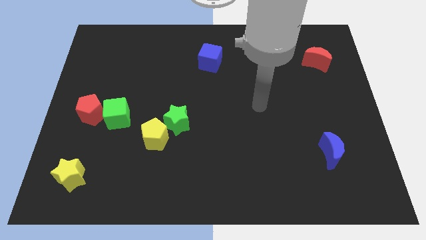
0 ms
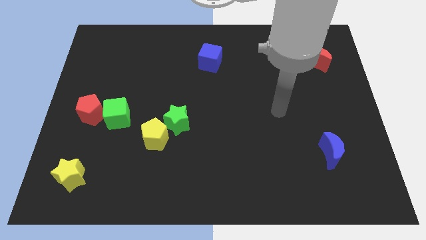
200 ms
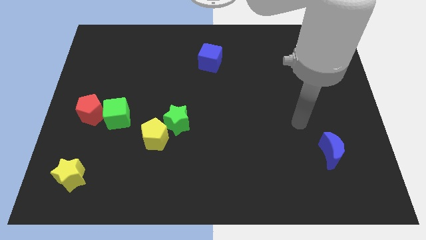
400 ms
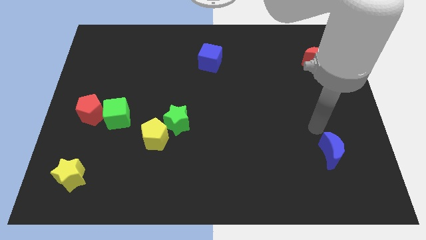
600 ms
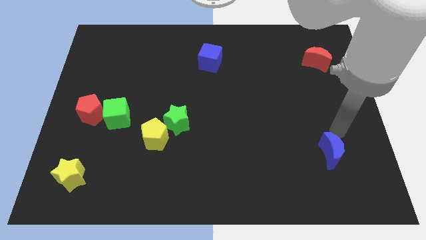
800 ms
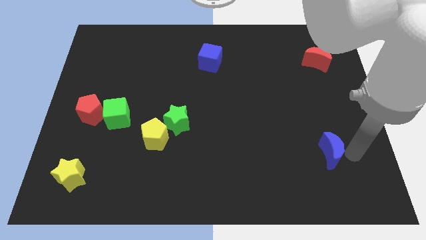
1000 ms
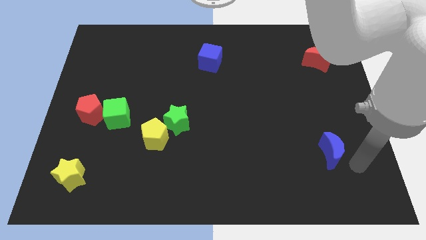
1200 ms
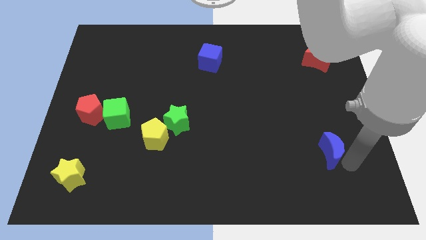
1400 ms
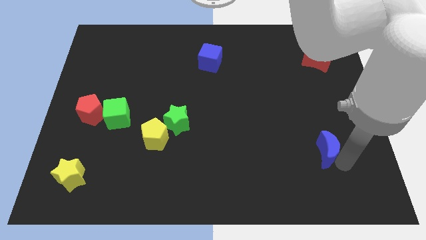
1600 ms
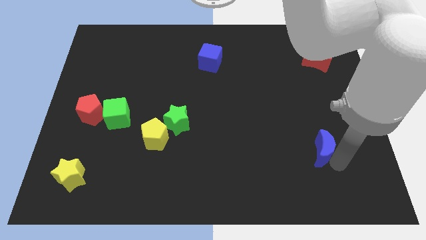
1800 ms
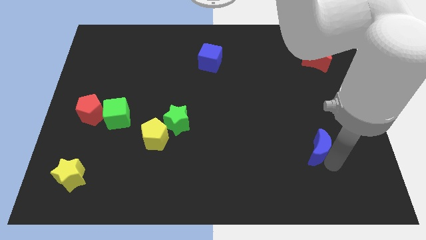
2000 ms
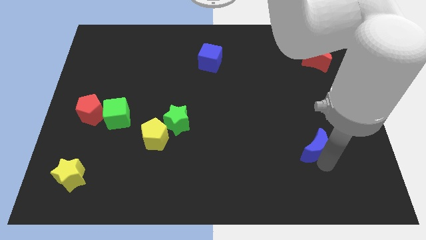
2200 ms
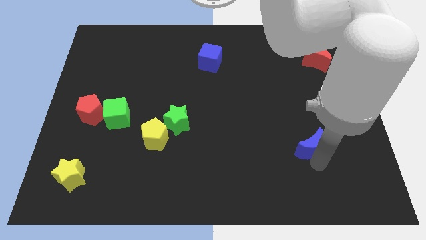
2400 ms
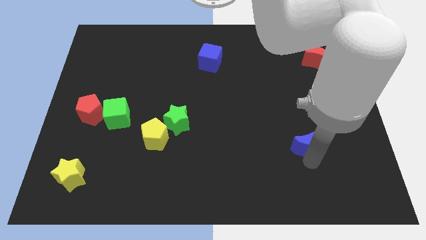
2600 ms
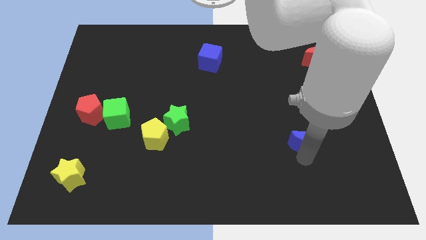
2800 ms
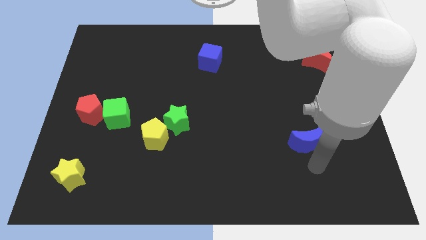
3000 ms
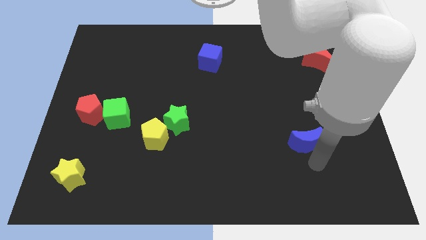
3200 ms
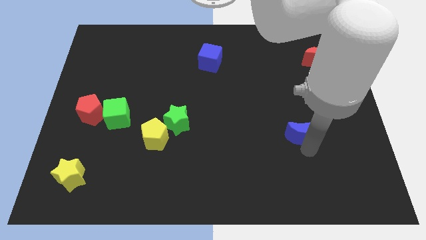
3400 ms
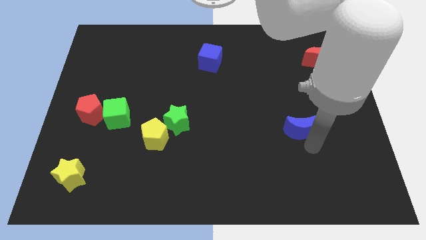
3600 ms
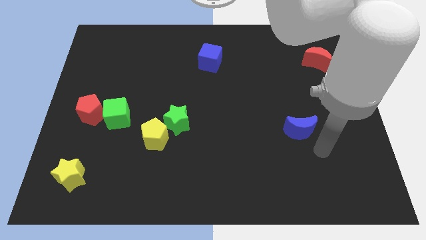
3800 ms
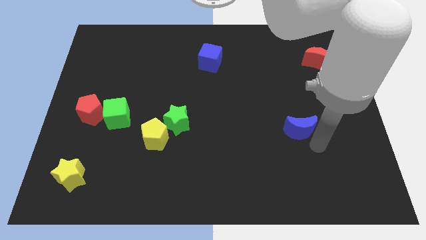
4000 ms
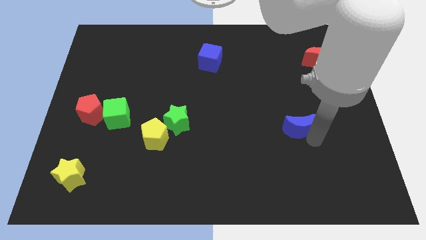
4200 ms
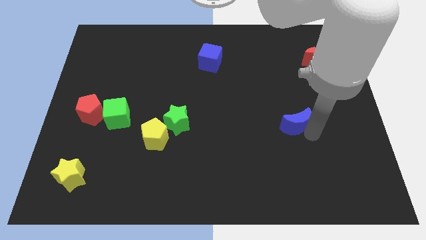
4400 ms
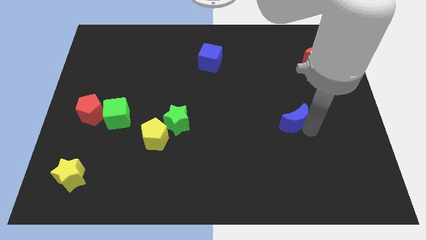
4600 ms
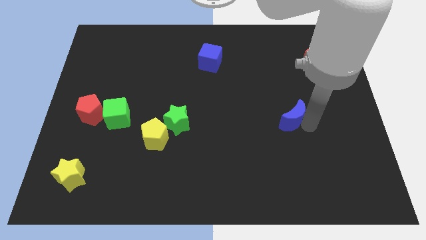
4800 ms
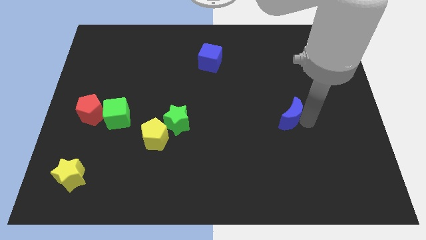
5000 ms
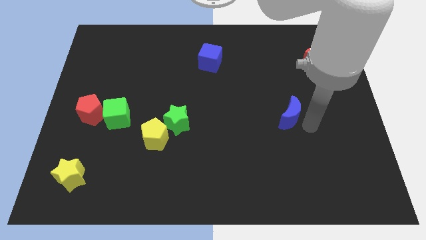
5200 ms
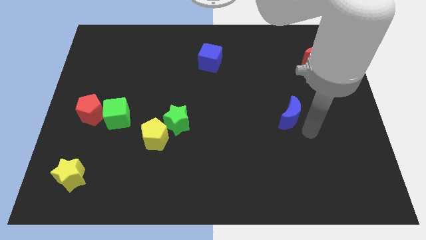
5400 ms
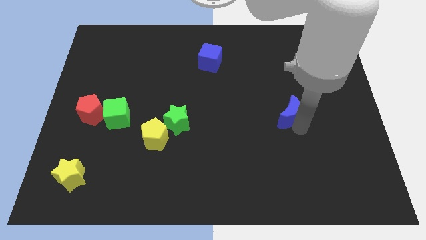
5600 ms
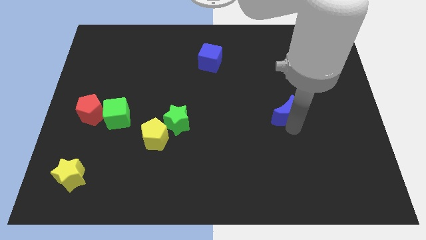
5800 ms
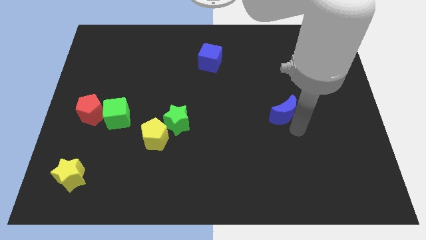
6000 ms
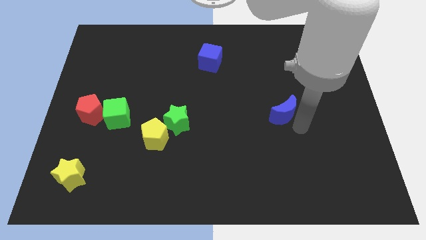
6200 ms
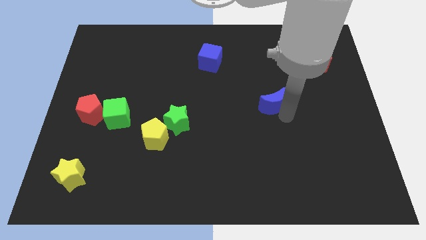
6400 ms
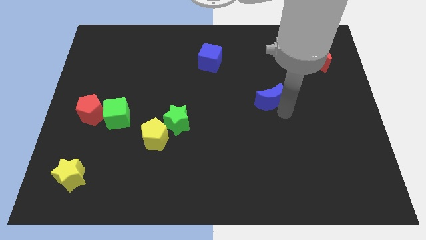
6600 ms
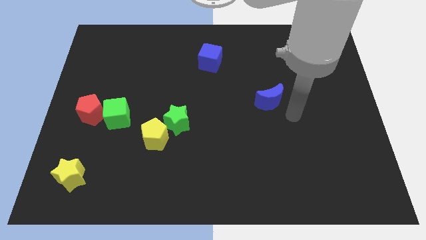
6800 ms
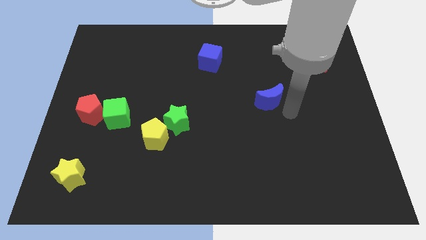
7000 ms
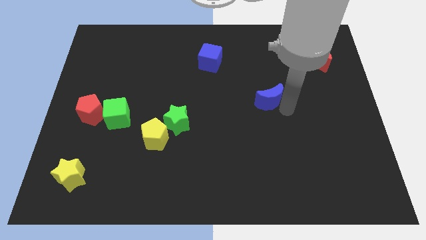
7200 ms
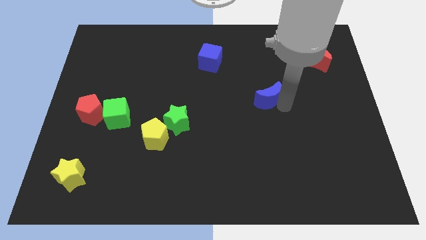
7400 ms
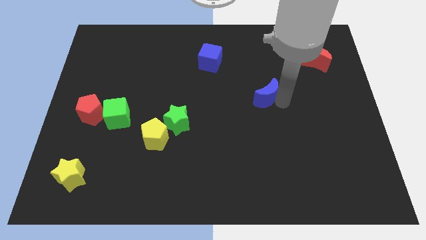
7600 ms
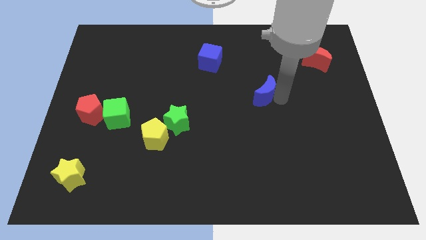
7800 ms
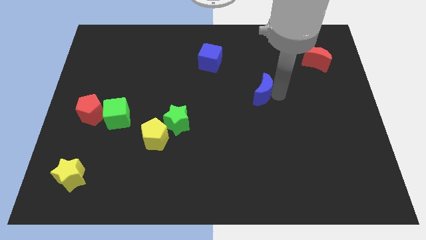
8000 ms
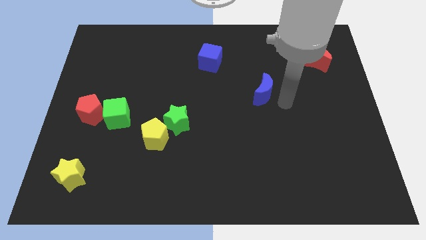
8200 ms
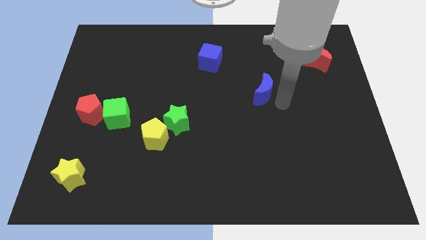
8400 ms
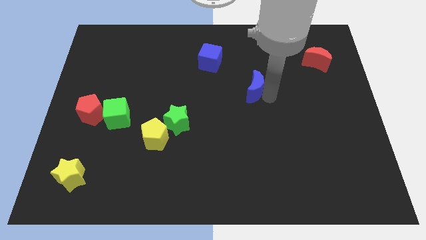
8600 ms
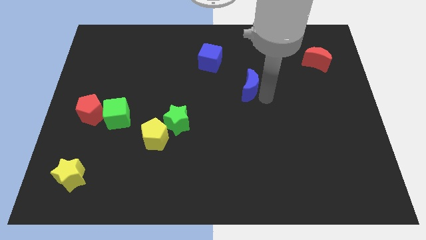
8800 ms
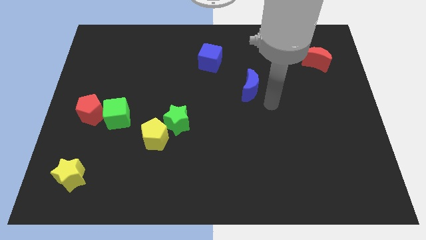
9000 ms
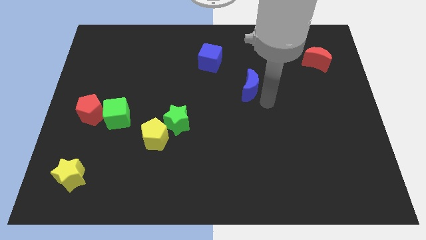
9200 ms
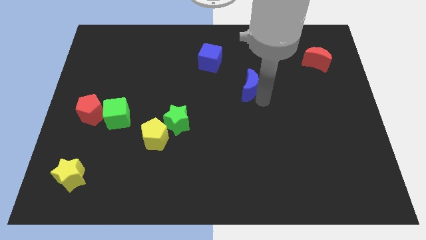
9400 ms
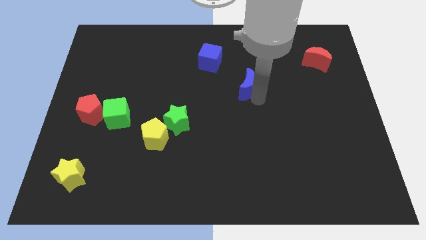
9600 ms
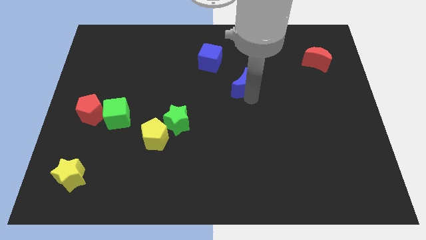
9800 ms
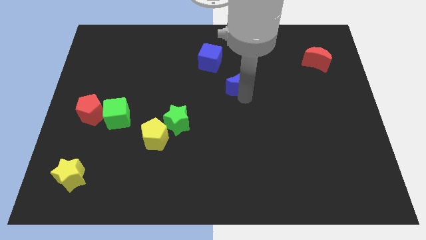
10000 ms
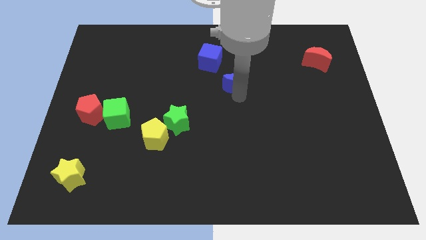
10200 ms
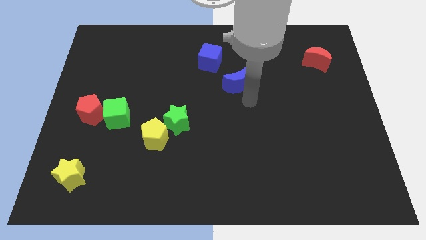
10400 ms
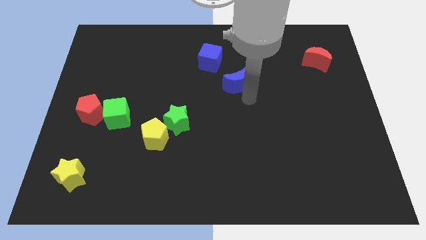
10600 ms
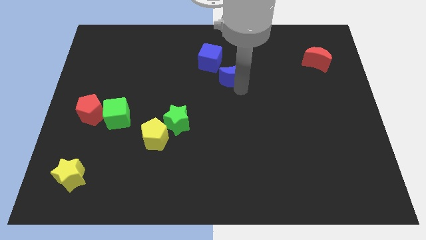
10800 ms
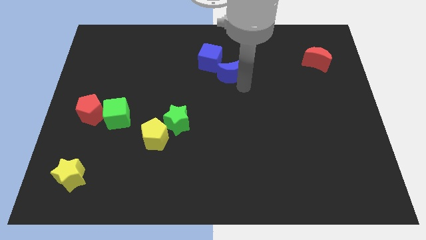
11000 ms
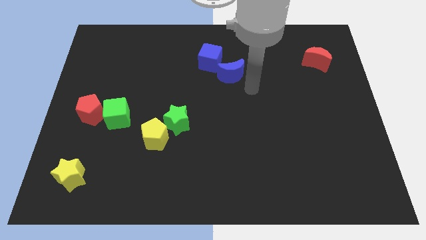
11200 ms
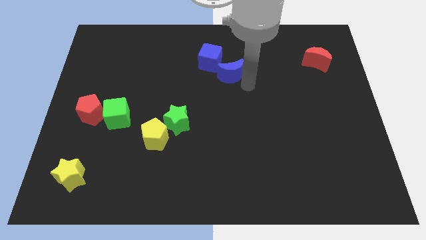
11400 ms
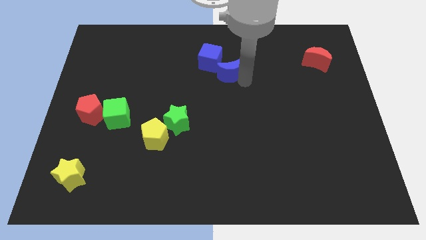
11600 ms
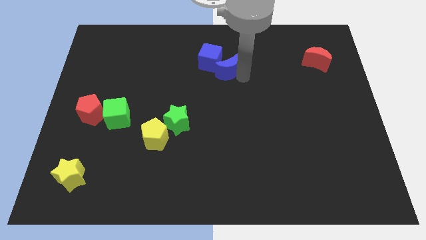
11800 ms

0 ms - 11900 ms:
put the blue moon close to the blue cube

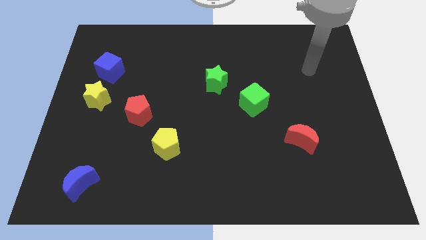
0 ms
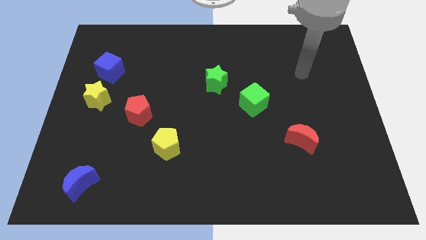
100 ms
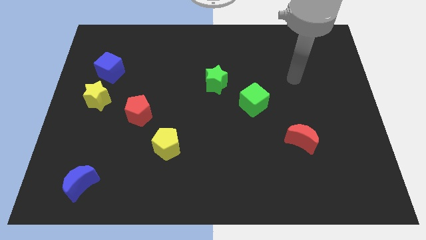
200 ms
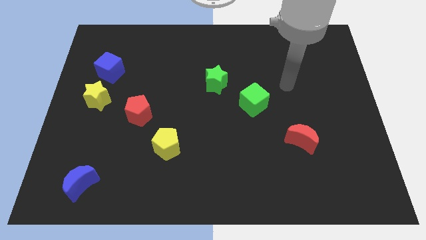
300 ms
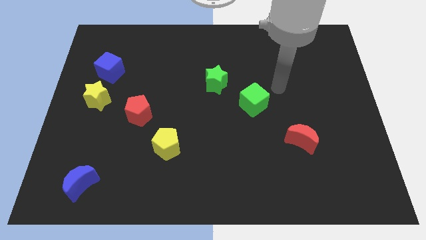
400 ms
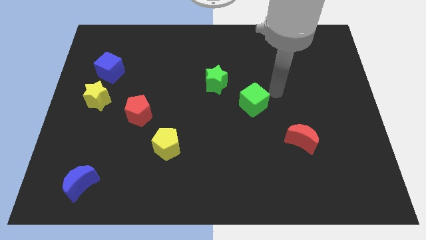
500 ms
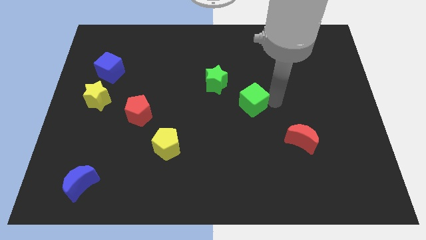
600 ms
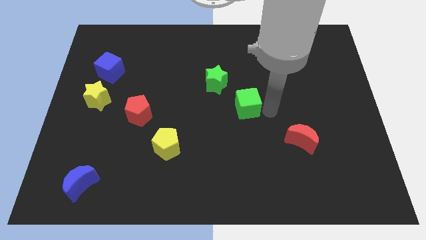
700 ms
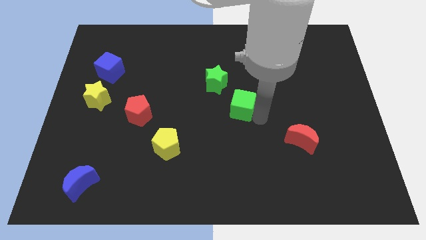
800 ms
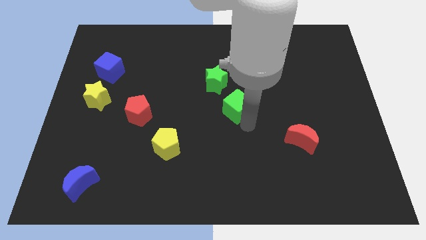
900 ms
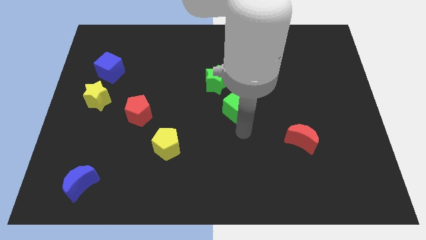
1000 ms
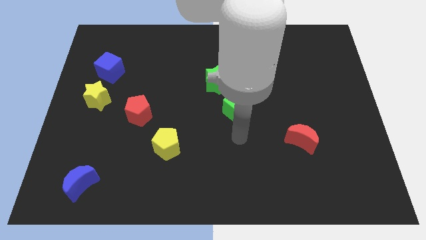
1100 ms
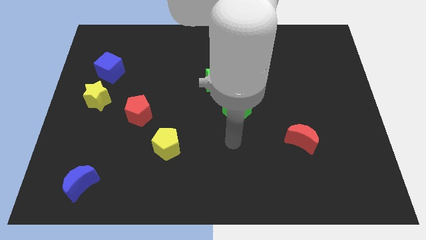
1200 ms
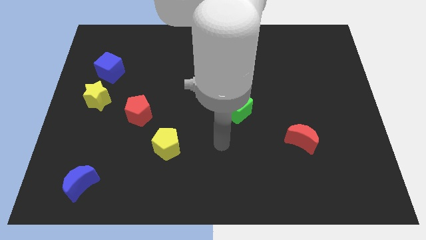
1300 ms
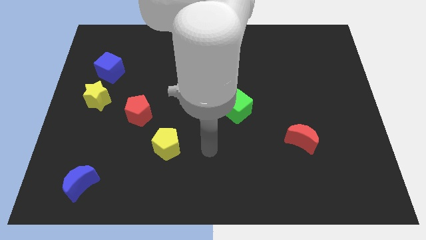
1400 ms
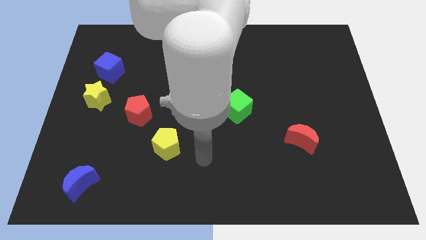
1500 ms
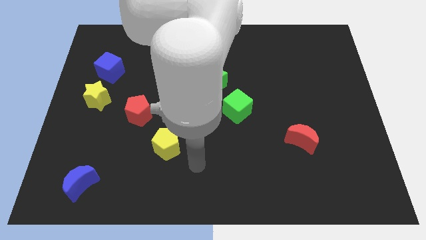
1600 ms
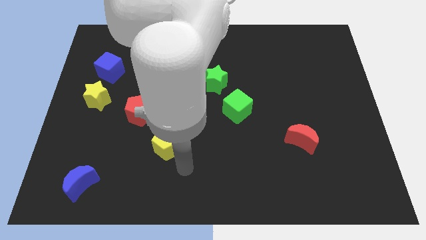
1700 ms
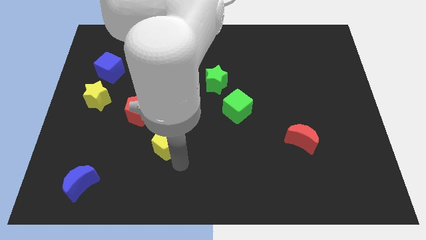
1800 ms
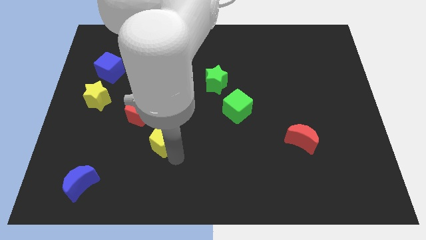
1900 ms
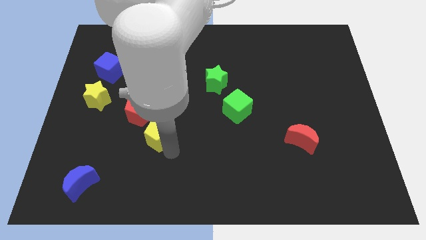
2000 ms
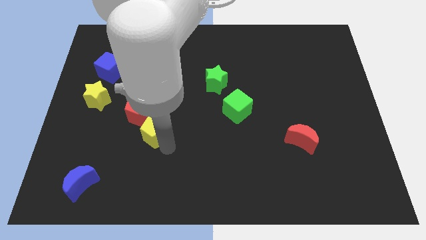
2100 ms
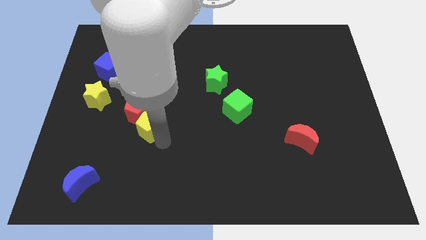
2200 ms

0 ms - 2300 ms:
move the yellow pentagon to the red pentagon
